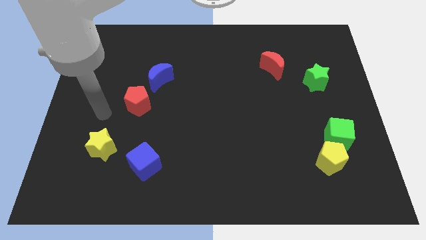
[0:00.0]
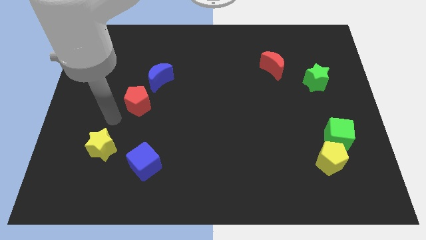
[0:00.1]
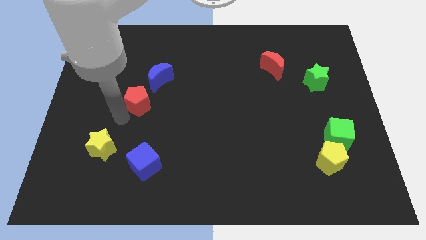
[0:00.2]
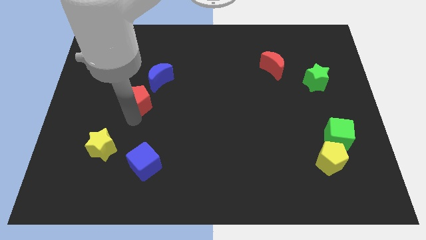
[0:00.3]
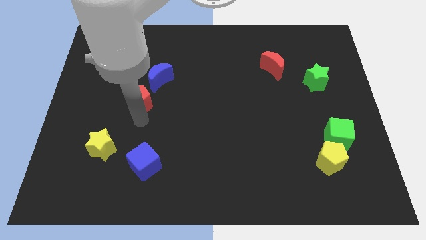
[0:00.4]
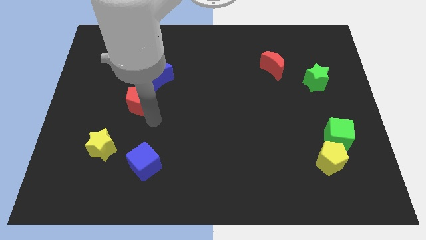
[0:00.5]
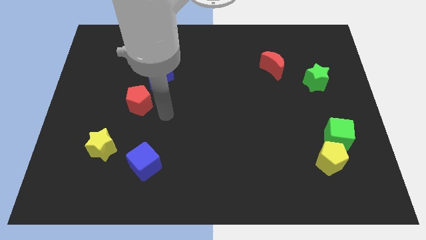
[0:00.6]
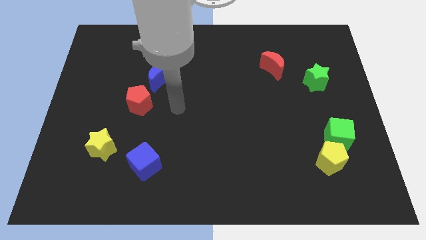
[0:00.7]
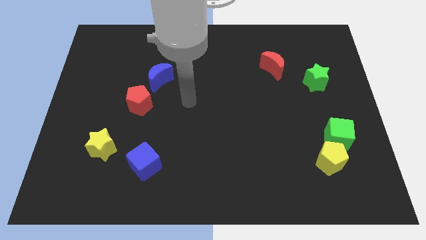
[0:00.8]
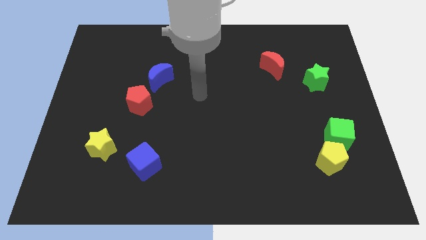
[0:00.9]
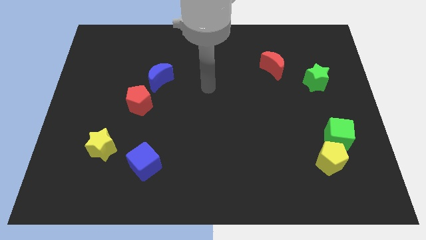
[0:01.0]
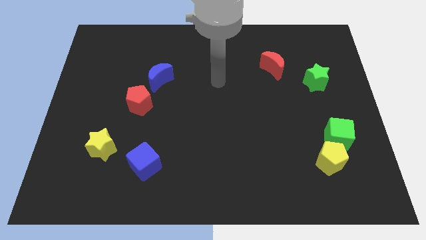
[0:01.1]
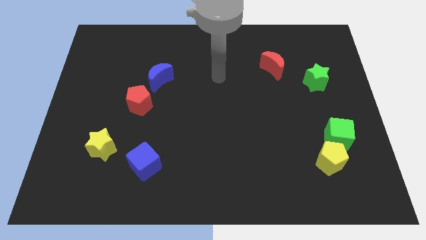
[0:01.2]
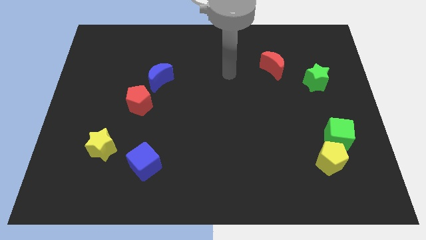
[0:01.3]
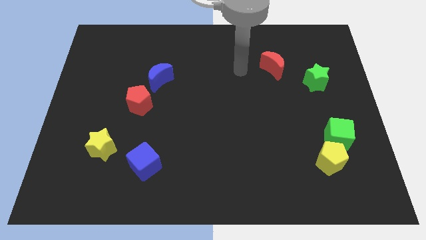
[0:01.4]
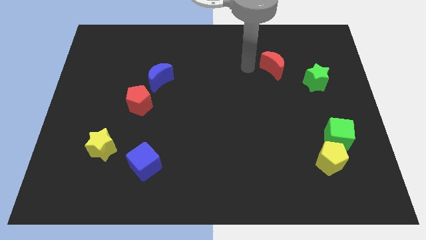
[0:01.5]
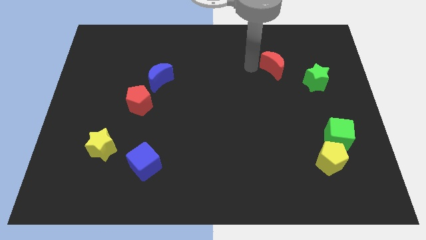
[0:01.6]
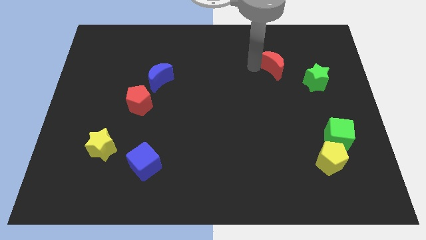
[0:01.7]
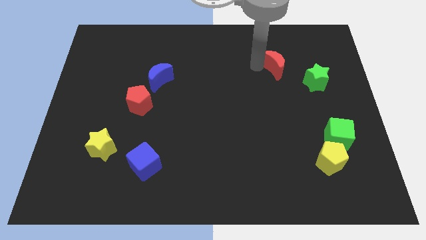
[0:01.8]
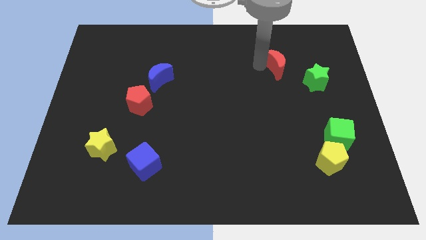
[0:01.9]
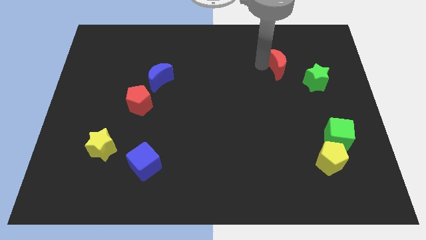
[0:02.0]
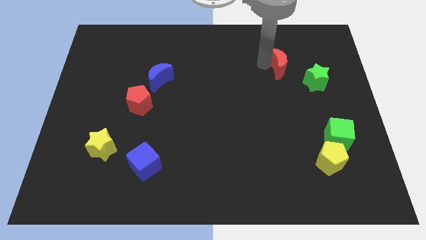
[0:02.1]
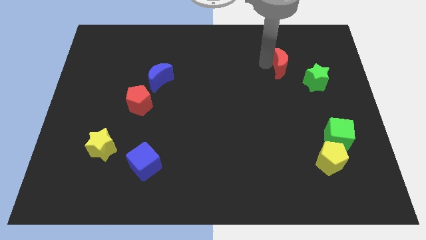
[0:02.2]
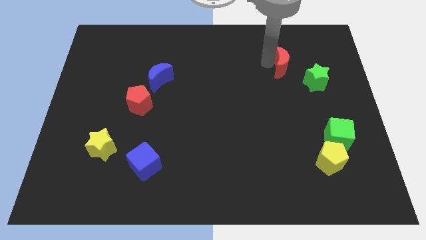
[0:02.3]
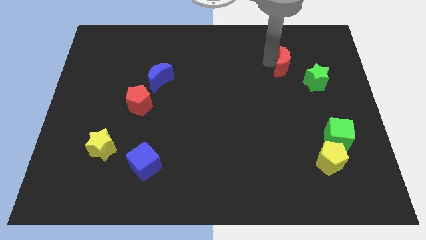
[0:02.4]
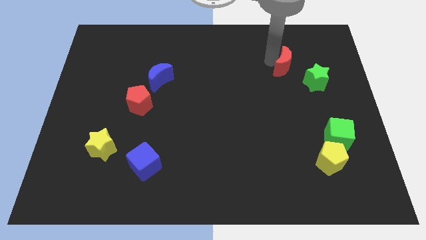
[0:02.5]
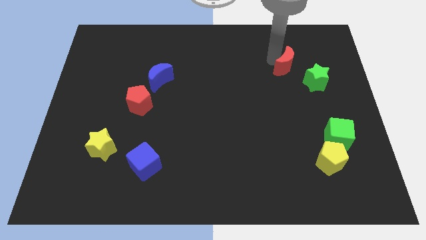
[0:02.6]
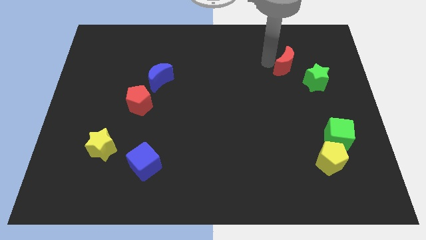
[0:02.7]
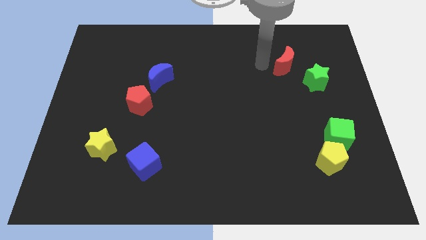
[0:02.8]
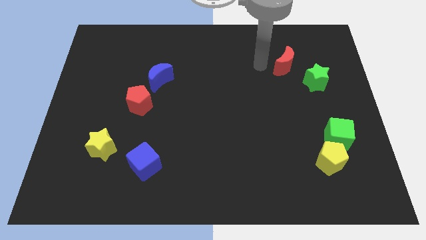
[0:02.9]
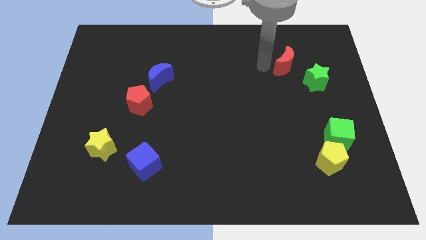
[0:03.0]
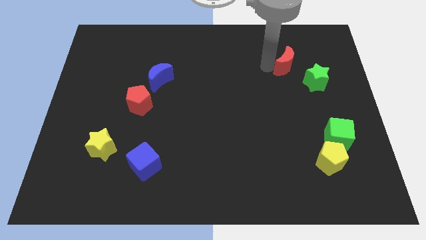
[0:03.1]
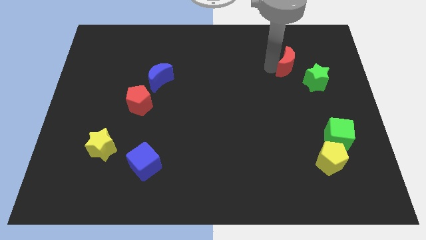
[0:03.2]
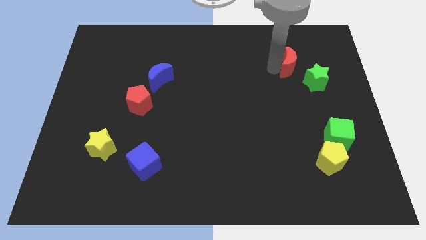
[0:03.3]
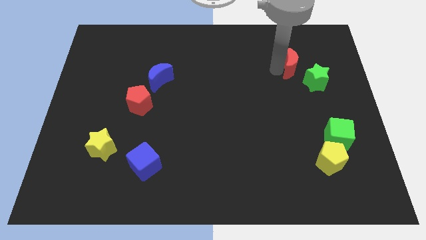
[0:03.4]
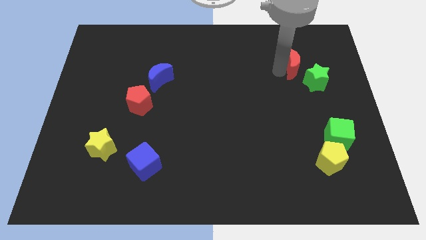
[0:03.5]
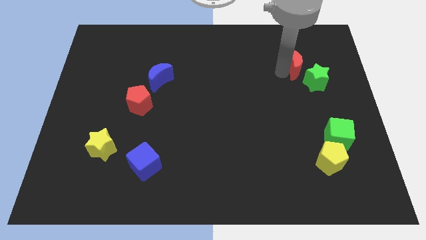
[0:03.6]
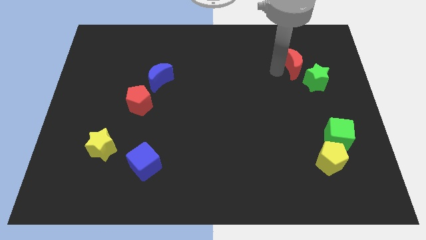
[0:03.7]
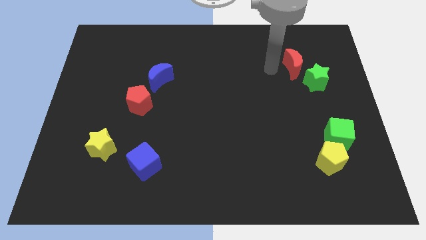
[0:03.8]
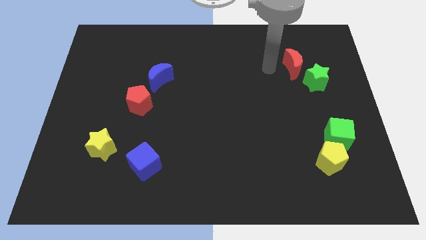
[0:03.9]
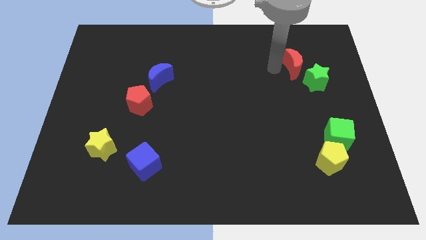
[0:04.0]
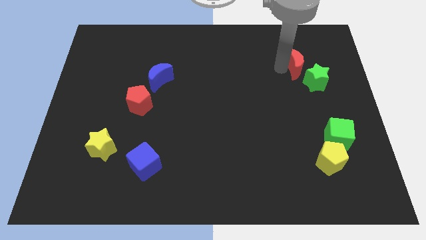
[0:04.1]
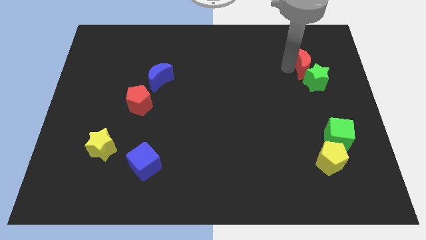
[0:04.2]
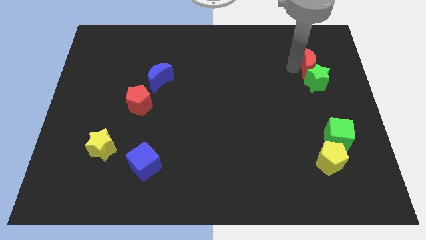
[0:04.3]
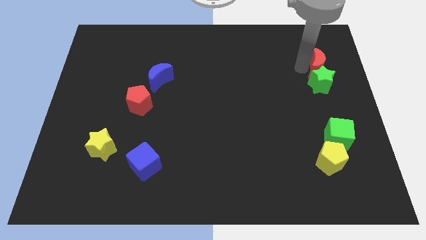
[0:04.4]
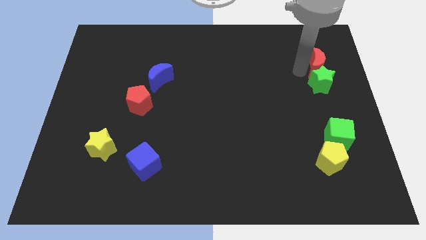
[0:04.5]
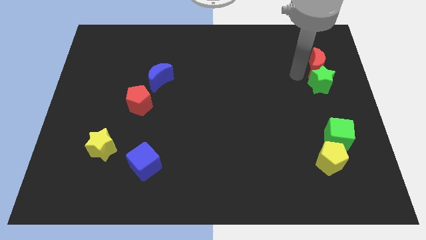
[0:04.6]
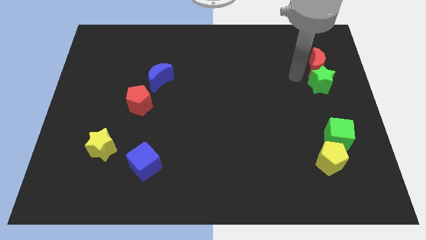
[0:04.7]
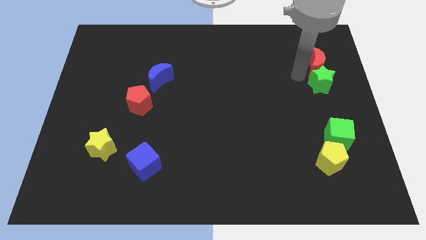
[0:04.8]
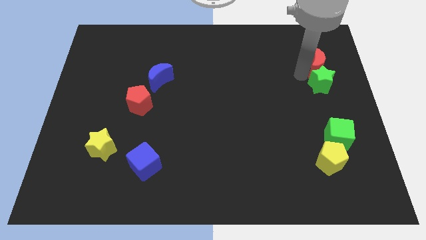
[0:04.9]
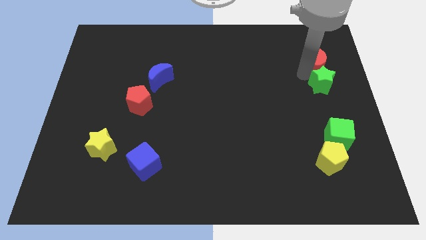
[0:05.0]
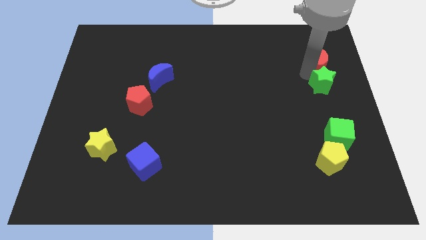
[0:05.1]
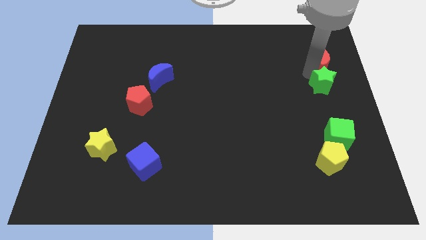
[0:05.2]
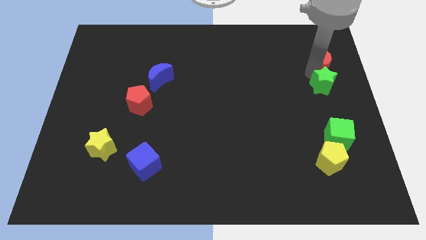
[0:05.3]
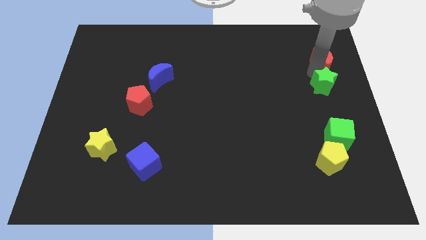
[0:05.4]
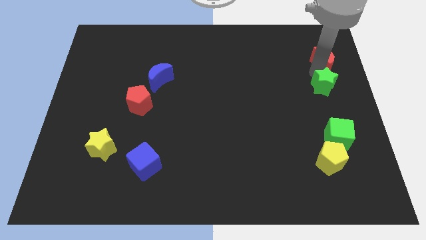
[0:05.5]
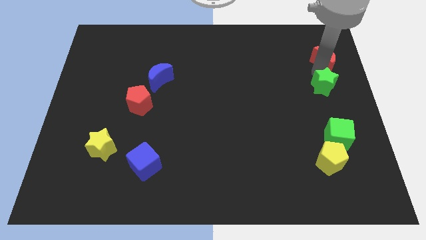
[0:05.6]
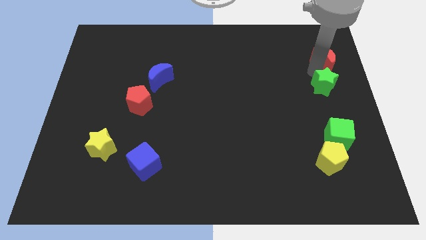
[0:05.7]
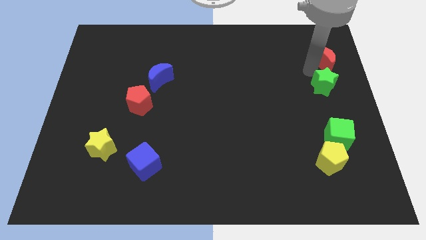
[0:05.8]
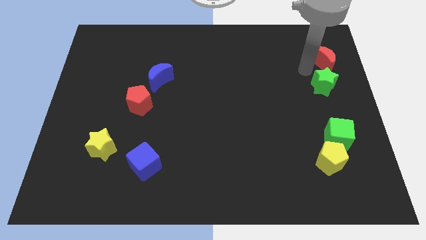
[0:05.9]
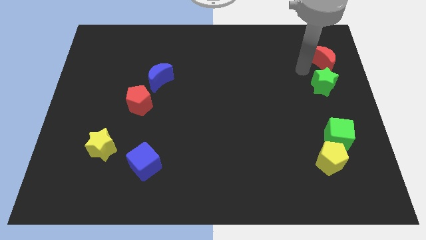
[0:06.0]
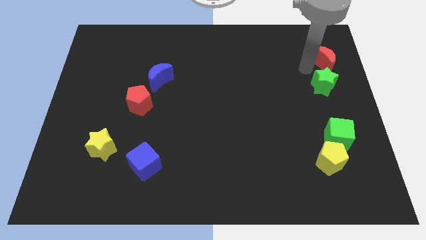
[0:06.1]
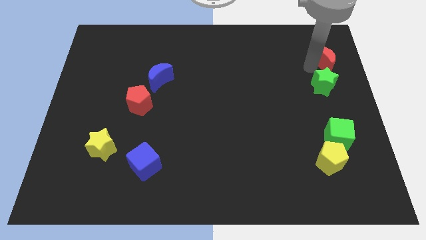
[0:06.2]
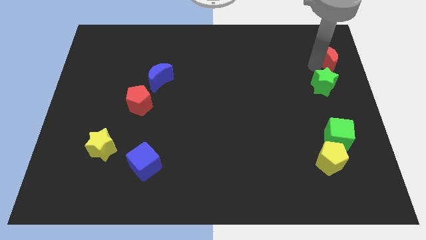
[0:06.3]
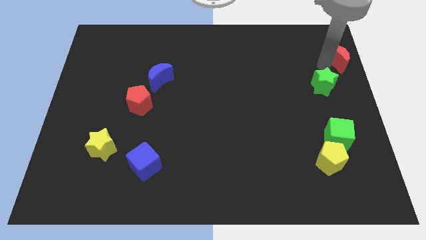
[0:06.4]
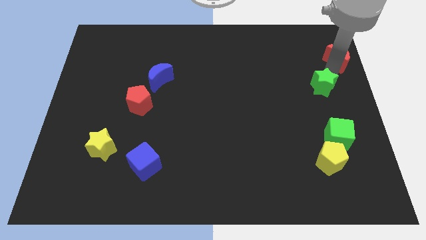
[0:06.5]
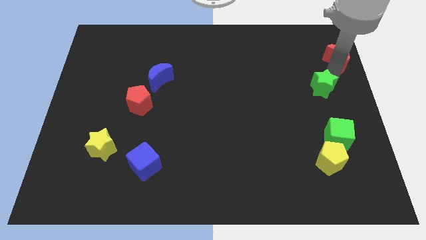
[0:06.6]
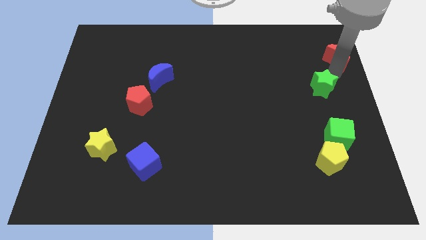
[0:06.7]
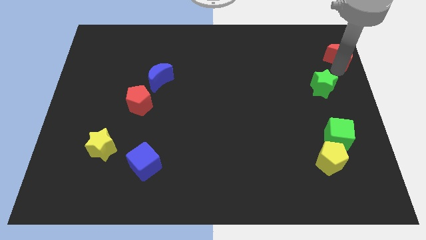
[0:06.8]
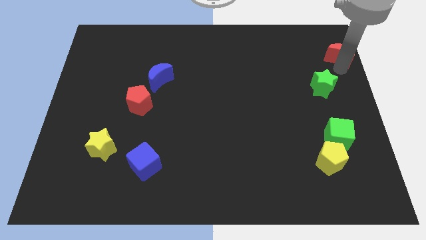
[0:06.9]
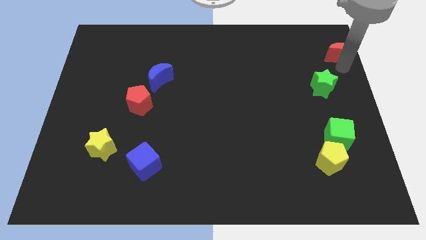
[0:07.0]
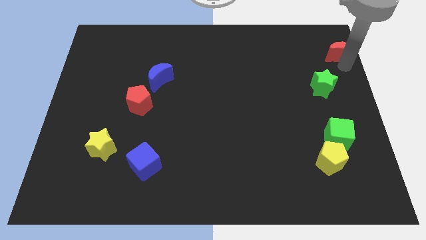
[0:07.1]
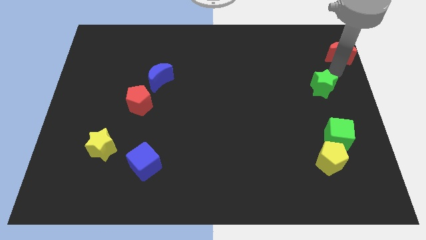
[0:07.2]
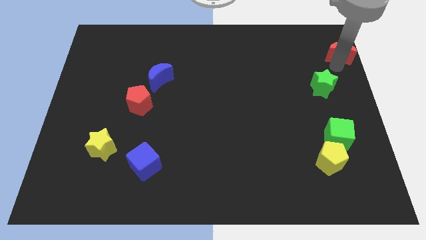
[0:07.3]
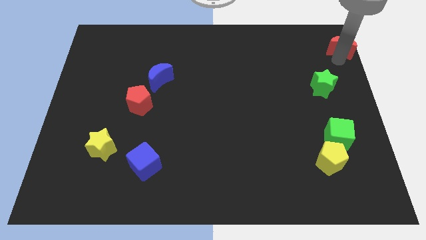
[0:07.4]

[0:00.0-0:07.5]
push the red moon to the top right corner
